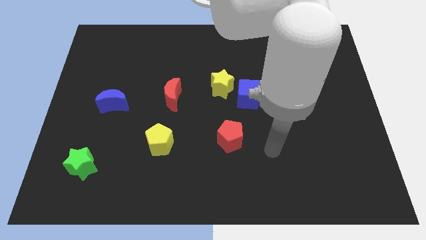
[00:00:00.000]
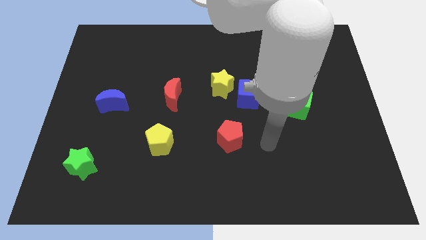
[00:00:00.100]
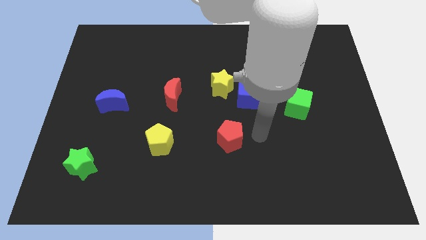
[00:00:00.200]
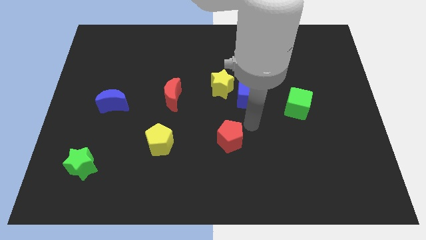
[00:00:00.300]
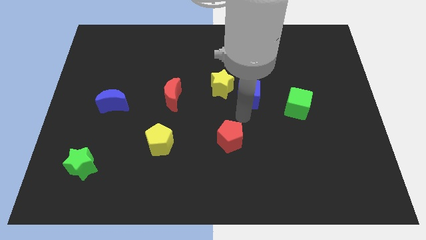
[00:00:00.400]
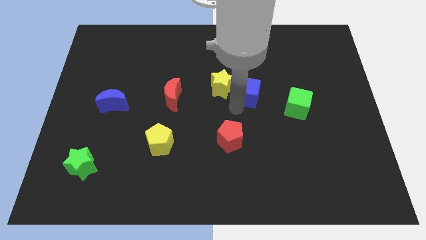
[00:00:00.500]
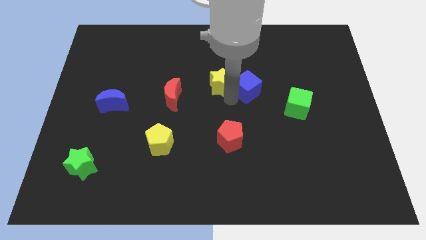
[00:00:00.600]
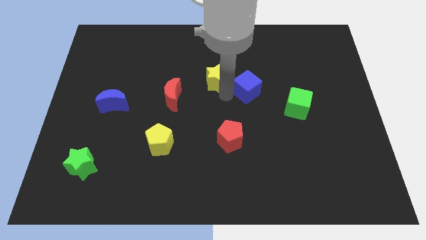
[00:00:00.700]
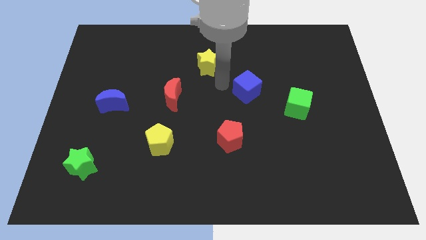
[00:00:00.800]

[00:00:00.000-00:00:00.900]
pull the blue cube apart from the yellow star

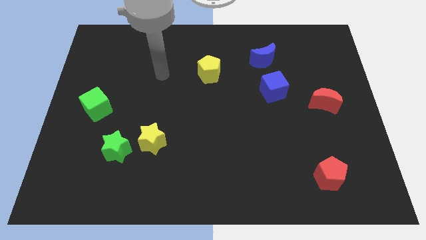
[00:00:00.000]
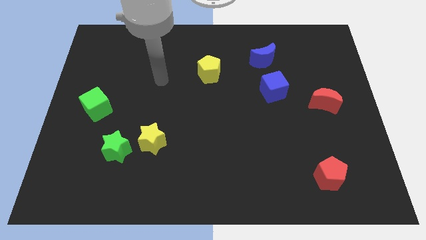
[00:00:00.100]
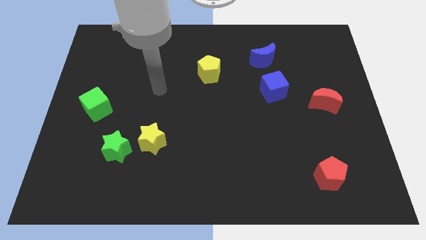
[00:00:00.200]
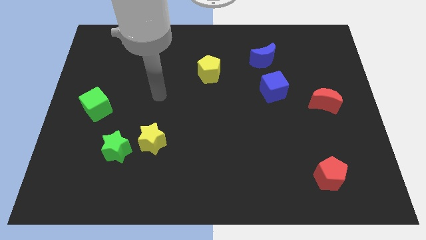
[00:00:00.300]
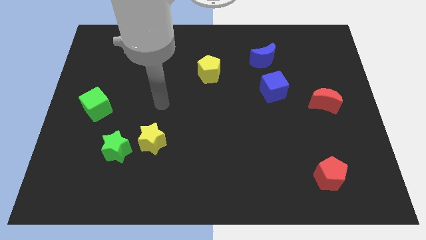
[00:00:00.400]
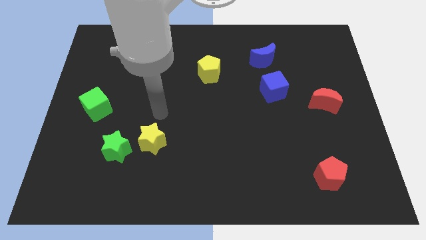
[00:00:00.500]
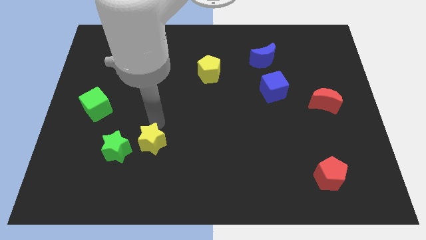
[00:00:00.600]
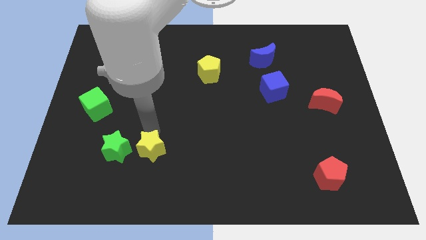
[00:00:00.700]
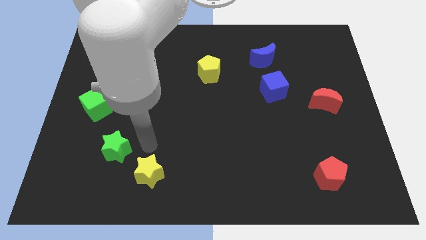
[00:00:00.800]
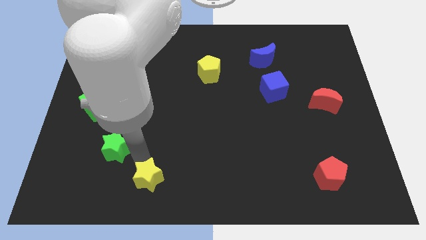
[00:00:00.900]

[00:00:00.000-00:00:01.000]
pull the green star apart from the yellow star

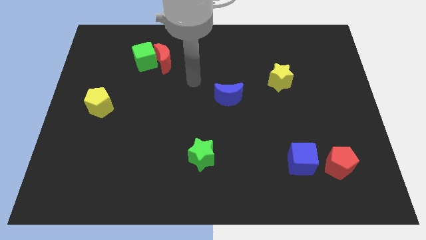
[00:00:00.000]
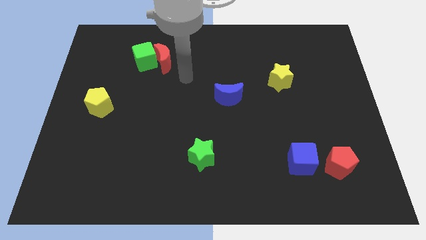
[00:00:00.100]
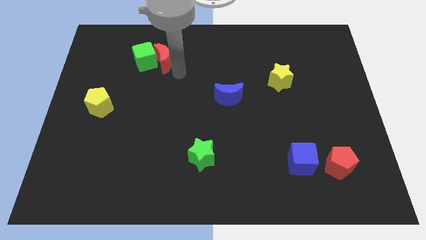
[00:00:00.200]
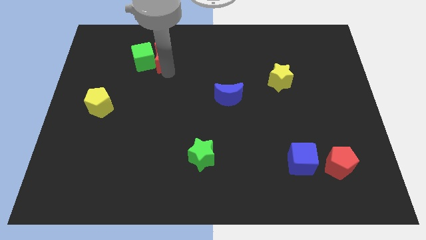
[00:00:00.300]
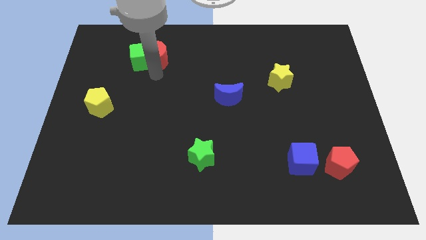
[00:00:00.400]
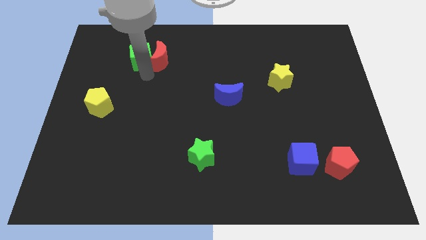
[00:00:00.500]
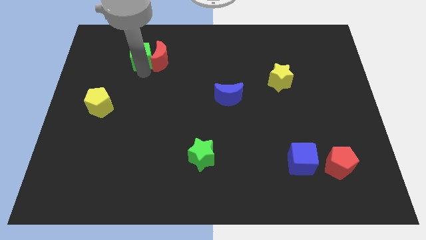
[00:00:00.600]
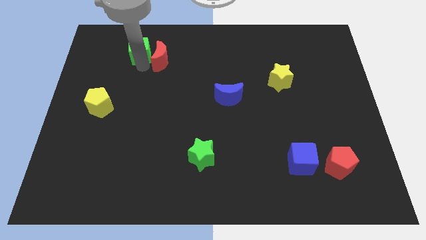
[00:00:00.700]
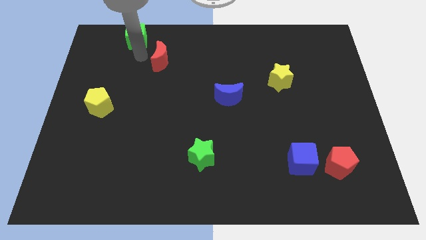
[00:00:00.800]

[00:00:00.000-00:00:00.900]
pull the red moon apart from the green cube

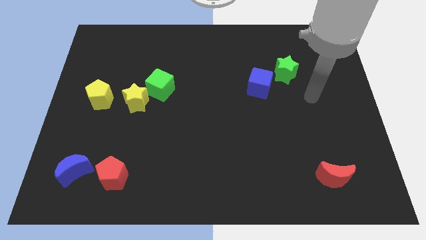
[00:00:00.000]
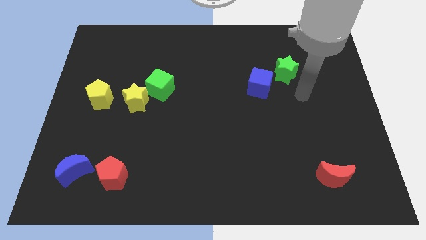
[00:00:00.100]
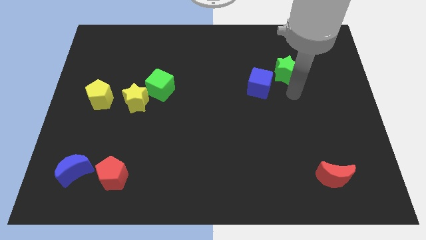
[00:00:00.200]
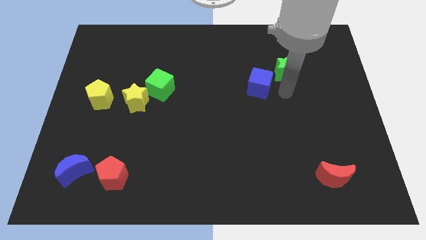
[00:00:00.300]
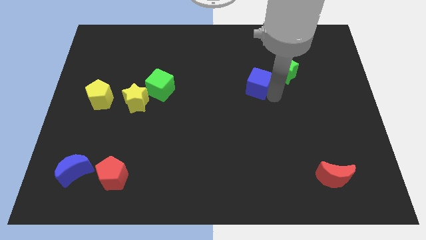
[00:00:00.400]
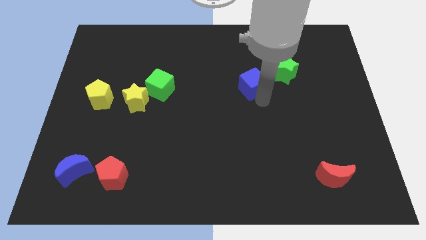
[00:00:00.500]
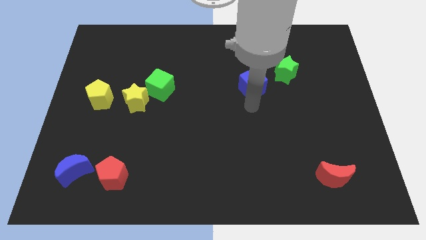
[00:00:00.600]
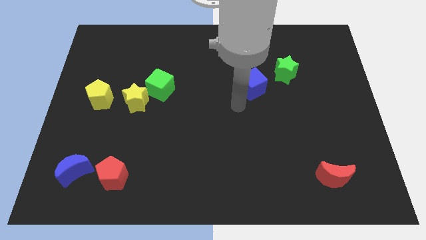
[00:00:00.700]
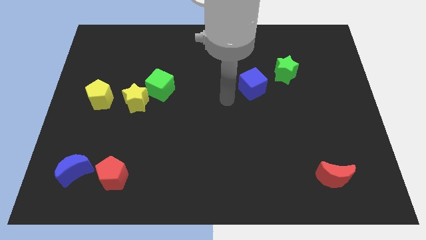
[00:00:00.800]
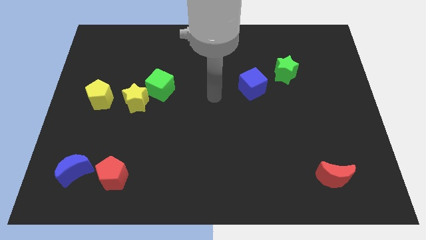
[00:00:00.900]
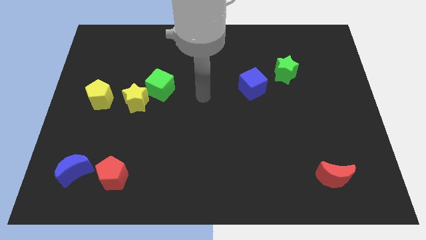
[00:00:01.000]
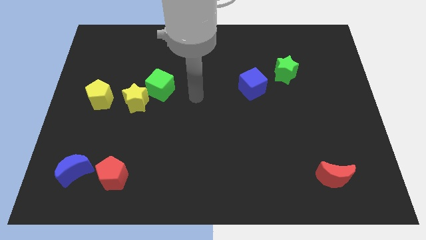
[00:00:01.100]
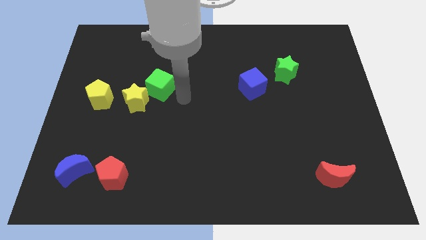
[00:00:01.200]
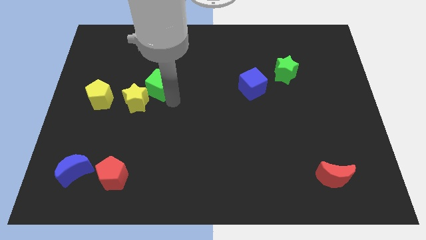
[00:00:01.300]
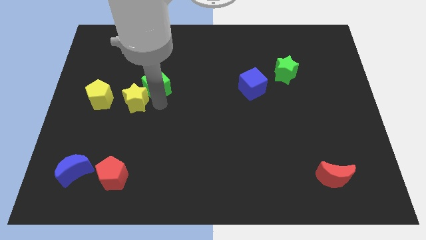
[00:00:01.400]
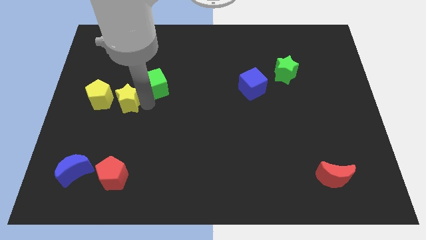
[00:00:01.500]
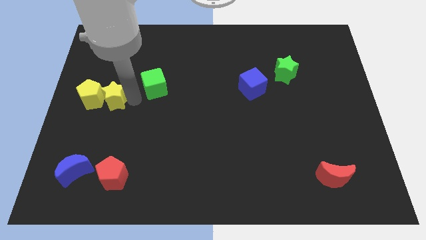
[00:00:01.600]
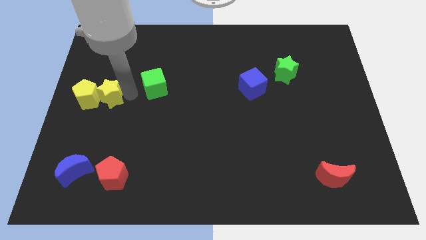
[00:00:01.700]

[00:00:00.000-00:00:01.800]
pull the green cube apart from the yellow star

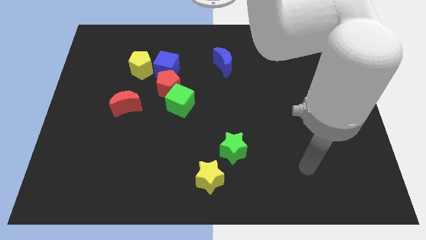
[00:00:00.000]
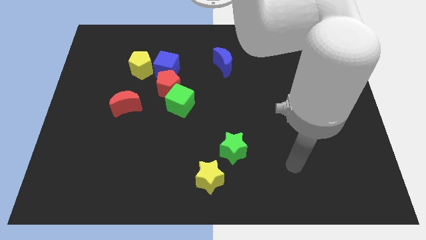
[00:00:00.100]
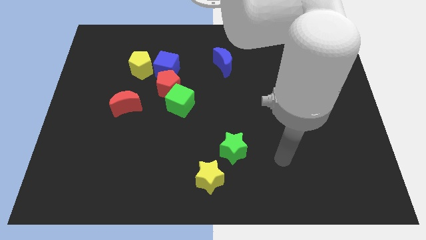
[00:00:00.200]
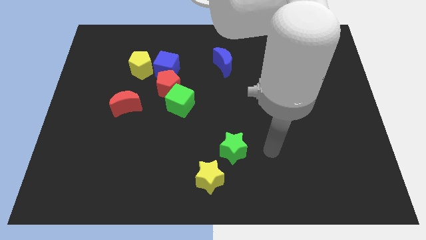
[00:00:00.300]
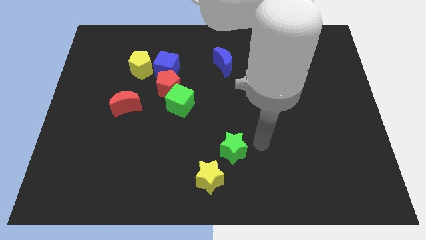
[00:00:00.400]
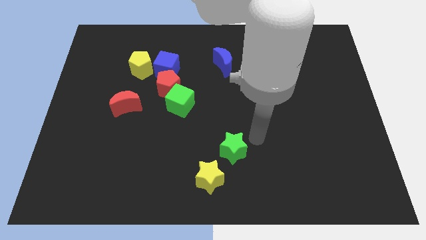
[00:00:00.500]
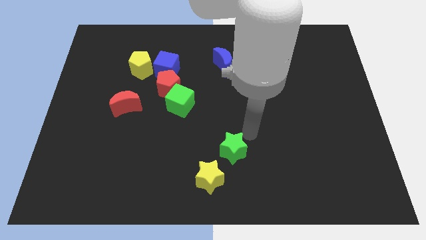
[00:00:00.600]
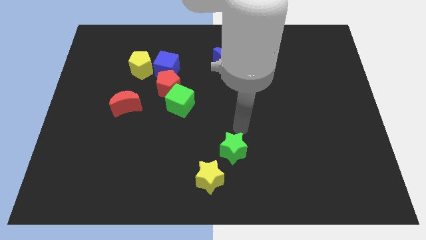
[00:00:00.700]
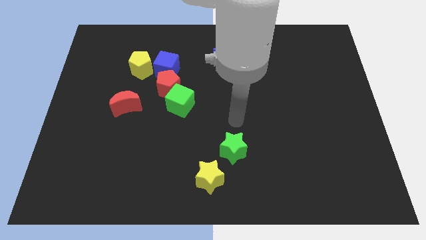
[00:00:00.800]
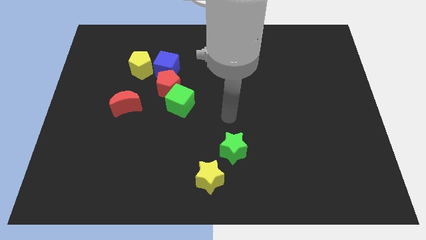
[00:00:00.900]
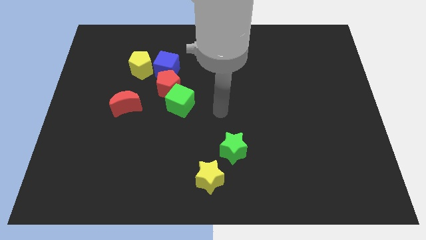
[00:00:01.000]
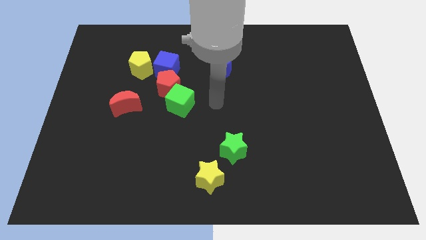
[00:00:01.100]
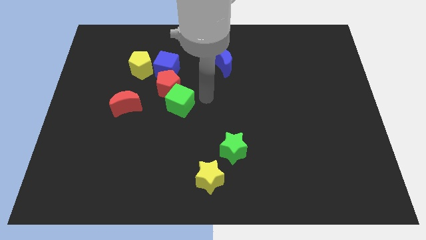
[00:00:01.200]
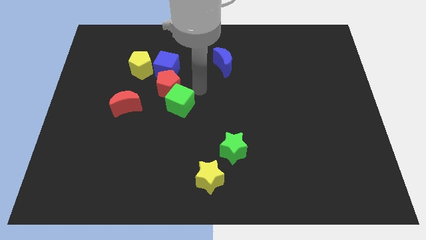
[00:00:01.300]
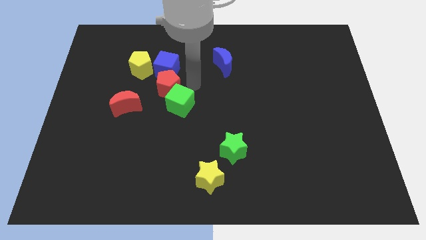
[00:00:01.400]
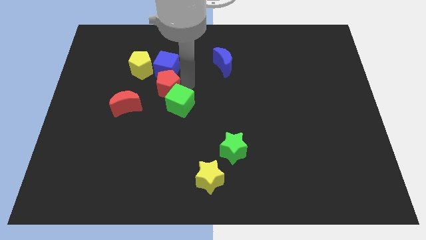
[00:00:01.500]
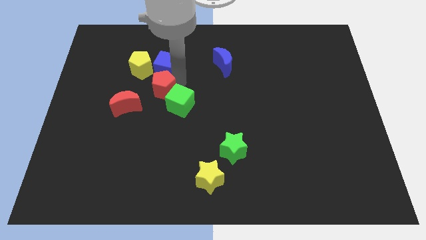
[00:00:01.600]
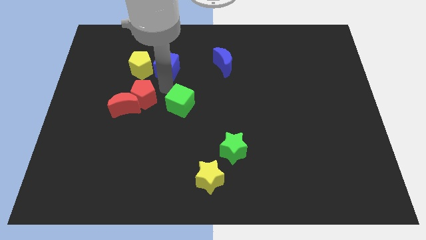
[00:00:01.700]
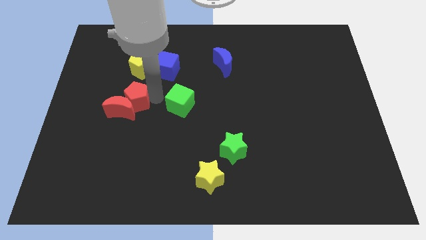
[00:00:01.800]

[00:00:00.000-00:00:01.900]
separate the green cube from the red pentagon

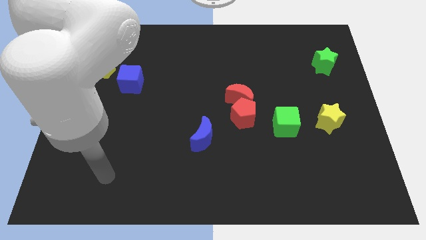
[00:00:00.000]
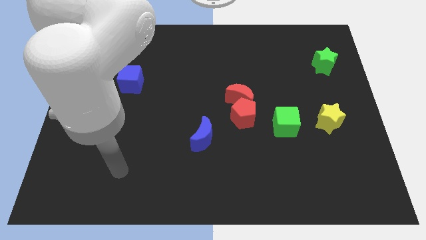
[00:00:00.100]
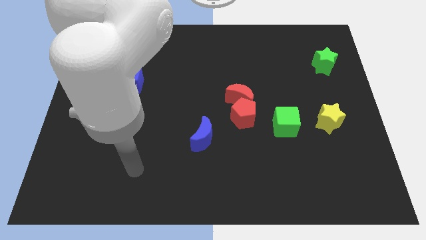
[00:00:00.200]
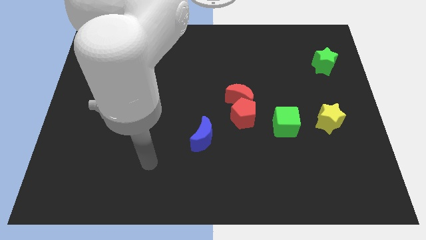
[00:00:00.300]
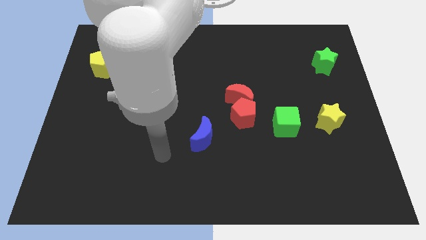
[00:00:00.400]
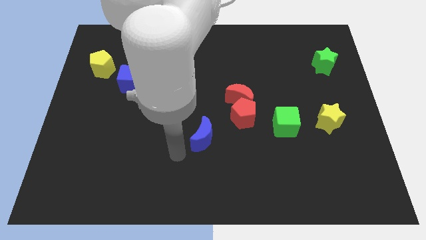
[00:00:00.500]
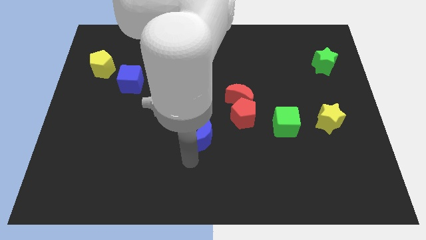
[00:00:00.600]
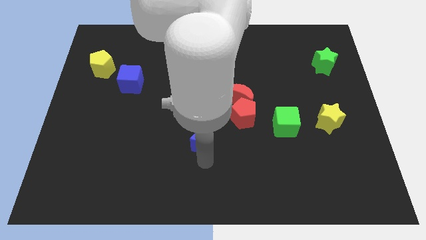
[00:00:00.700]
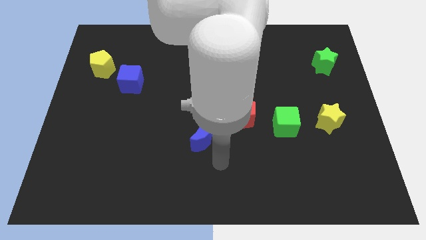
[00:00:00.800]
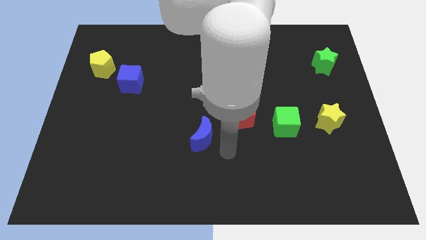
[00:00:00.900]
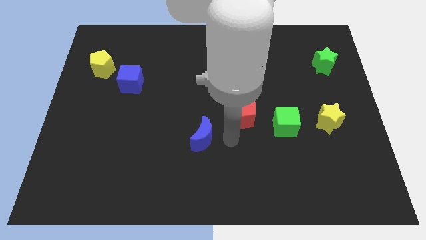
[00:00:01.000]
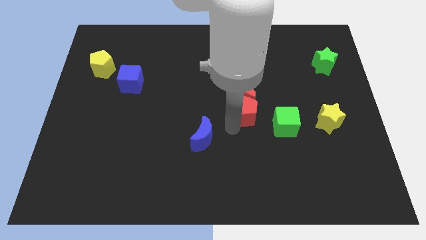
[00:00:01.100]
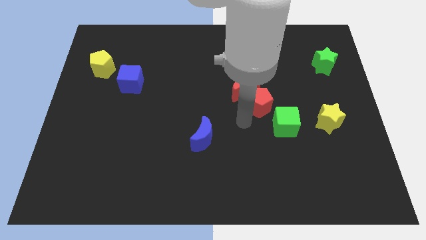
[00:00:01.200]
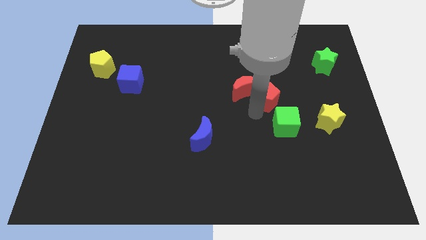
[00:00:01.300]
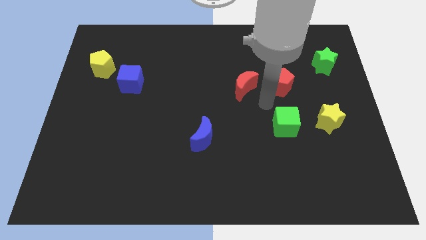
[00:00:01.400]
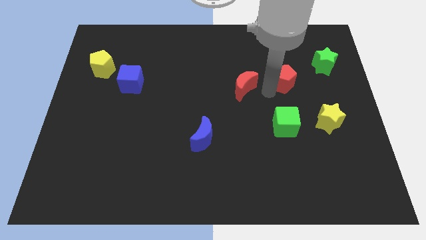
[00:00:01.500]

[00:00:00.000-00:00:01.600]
separate the red moon from the red pentagon

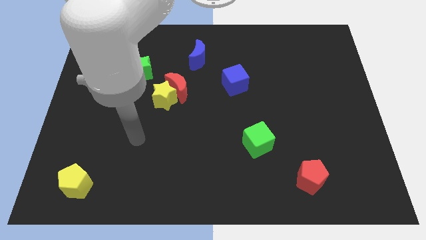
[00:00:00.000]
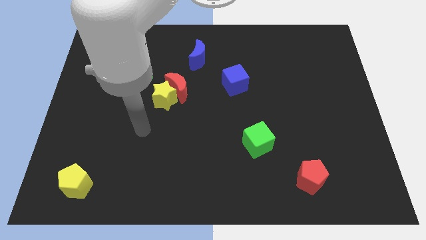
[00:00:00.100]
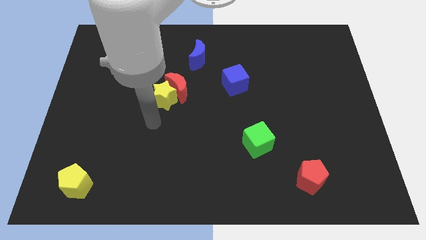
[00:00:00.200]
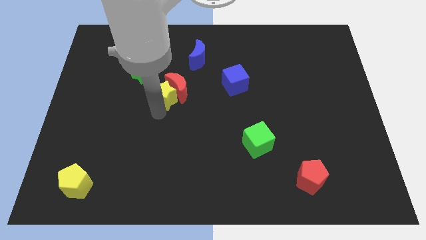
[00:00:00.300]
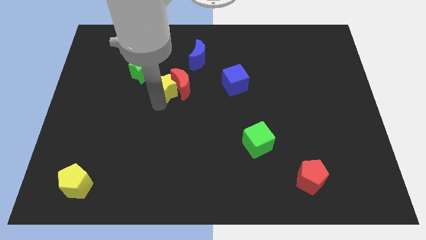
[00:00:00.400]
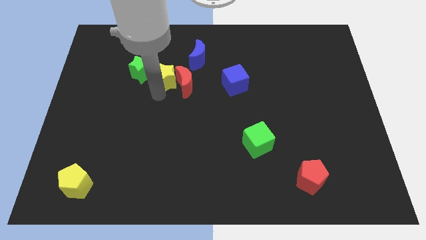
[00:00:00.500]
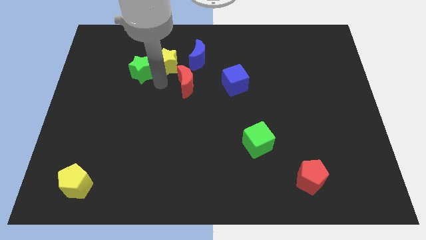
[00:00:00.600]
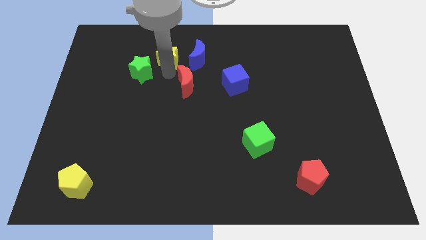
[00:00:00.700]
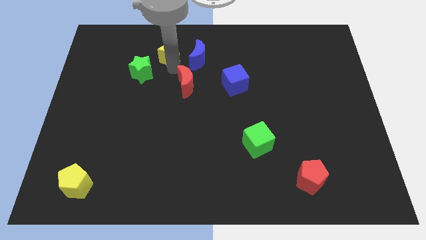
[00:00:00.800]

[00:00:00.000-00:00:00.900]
separate the red moon from the yellow star
